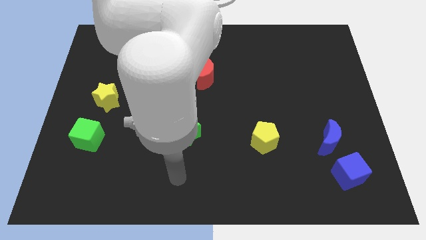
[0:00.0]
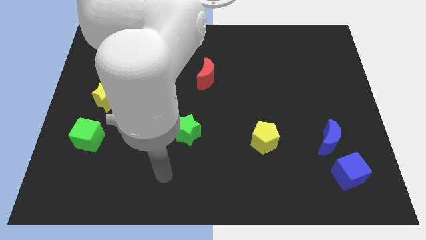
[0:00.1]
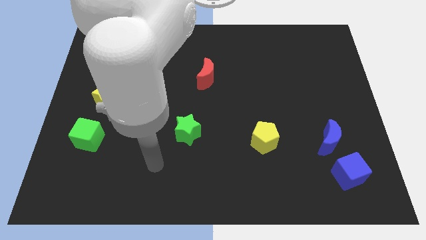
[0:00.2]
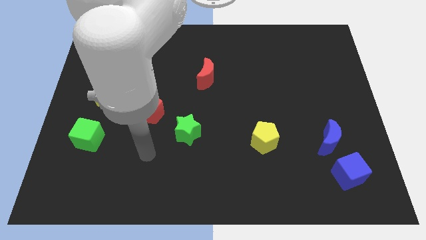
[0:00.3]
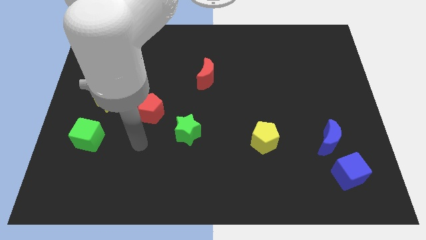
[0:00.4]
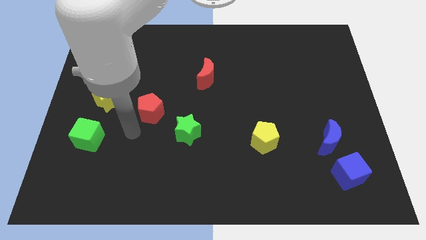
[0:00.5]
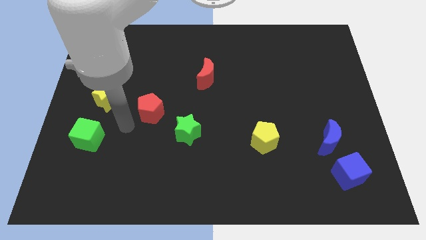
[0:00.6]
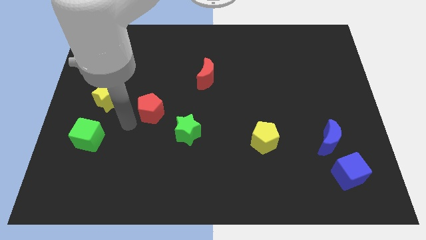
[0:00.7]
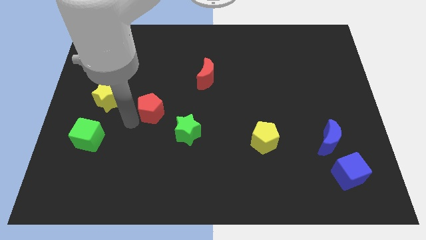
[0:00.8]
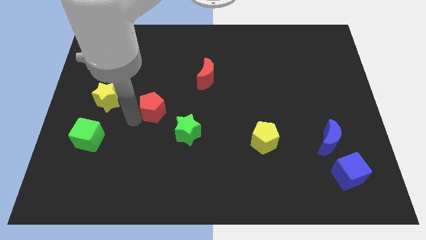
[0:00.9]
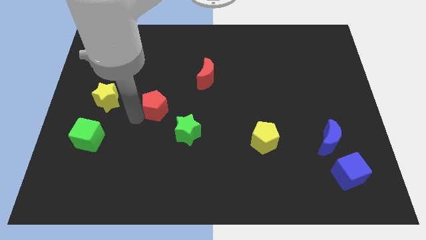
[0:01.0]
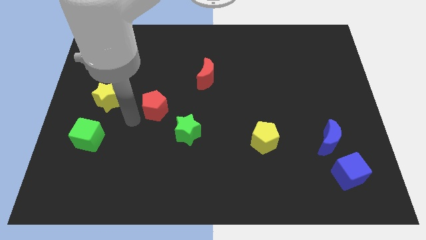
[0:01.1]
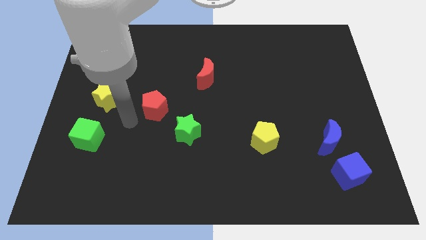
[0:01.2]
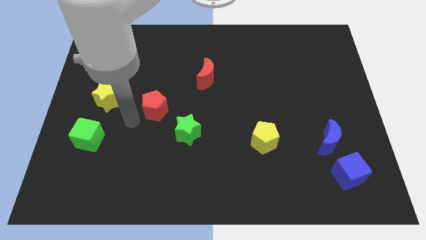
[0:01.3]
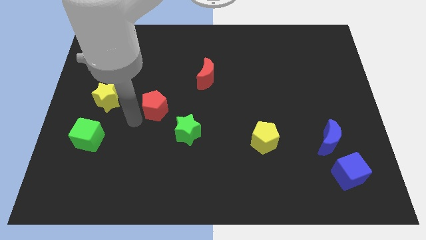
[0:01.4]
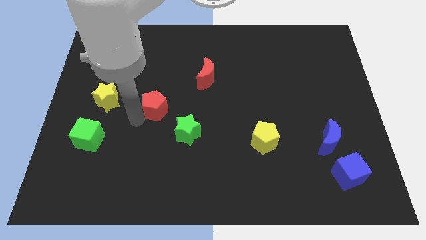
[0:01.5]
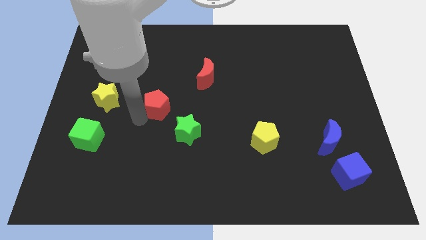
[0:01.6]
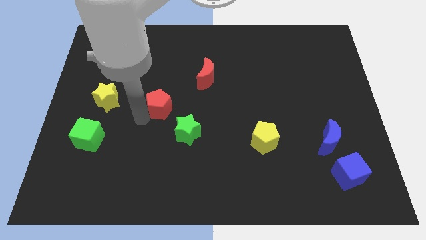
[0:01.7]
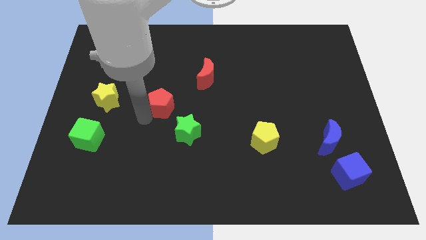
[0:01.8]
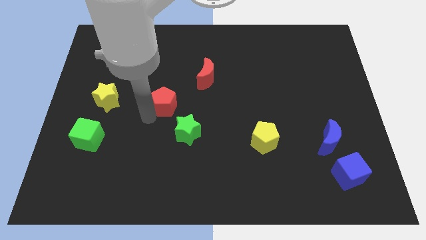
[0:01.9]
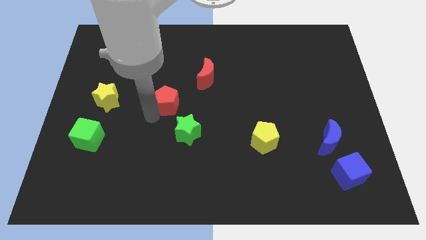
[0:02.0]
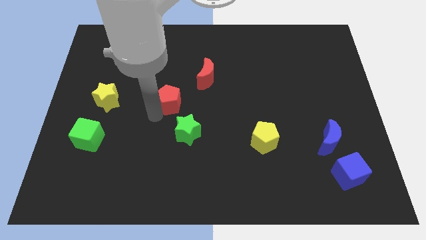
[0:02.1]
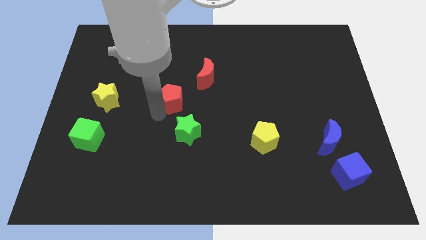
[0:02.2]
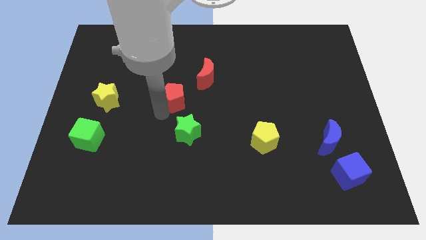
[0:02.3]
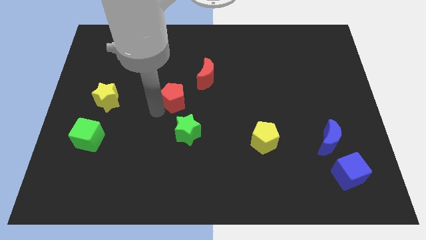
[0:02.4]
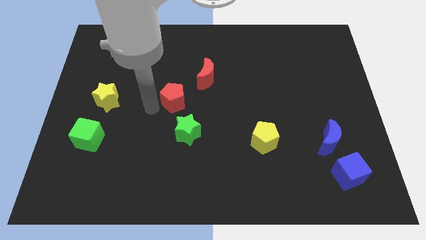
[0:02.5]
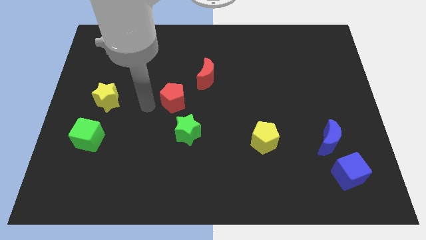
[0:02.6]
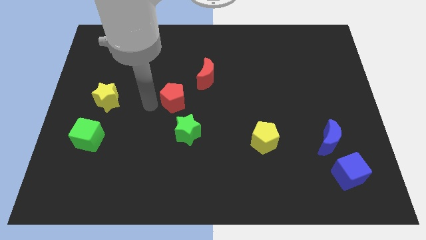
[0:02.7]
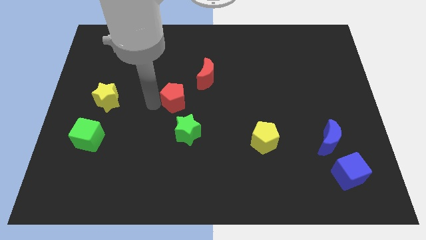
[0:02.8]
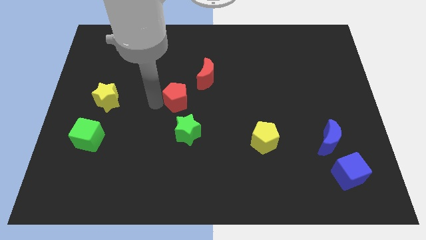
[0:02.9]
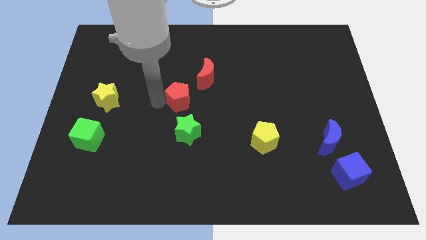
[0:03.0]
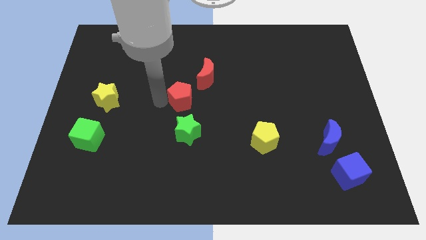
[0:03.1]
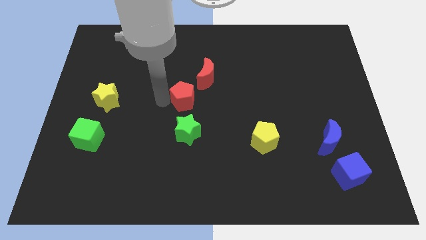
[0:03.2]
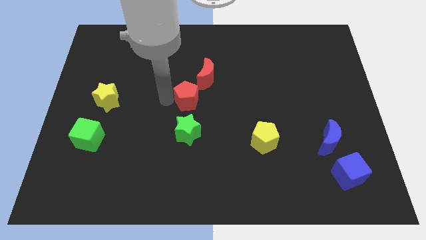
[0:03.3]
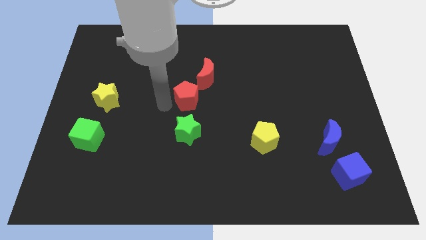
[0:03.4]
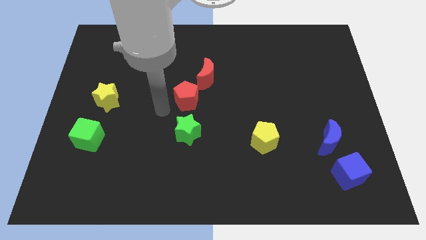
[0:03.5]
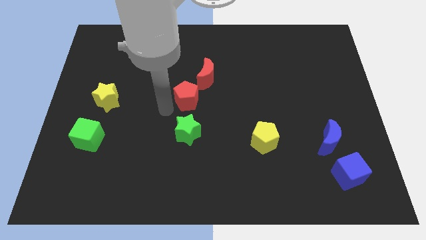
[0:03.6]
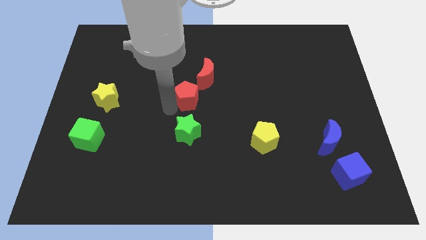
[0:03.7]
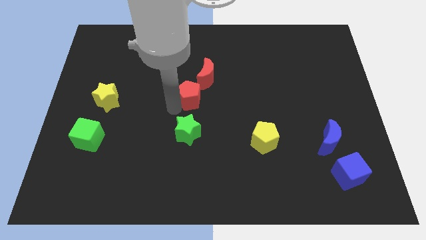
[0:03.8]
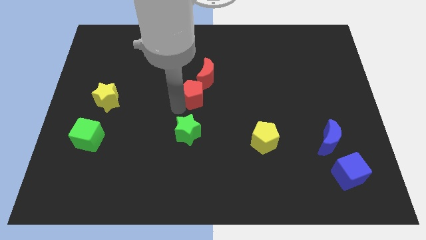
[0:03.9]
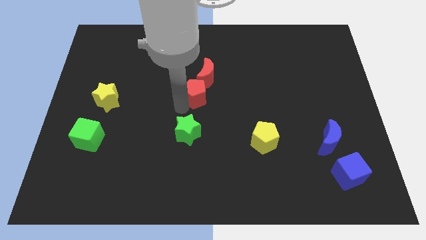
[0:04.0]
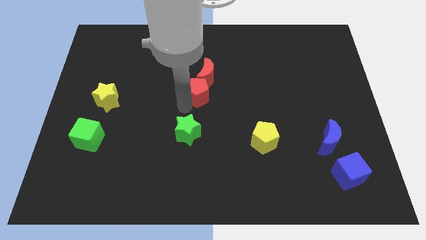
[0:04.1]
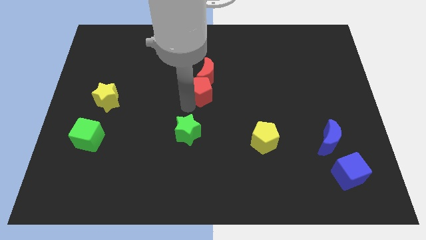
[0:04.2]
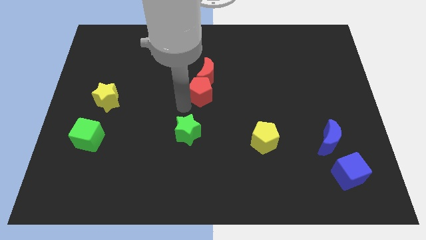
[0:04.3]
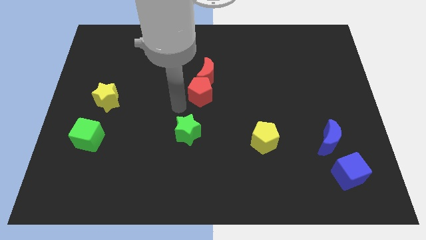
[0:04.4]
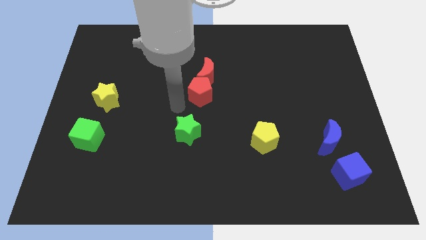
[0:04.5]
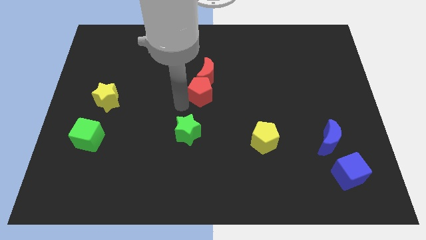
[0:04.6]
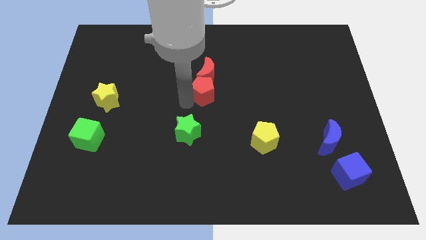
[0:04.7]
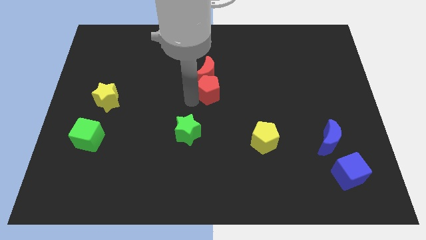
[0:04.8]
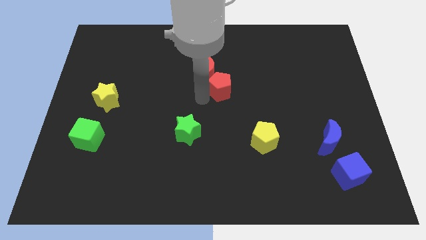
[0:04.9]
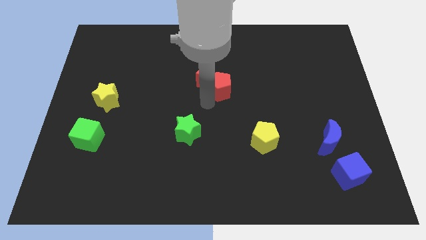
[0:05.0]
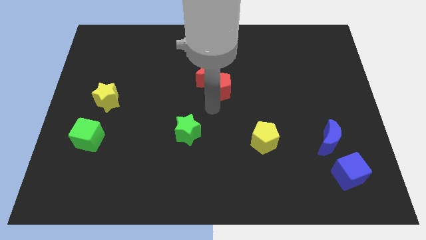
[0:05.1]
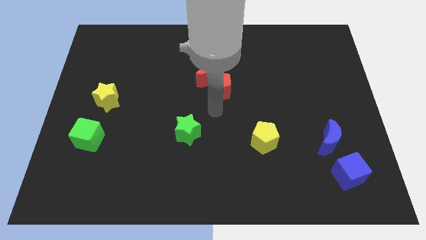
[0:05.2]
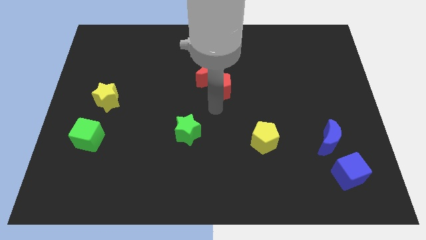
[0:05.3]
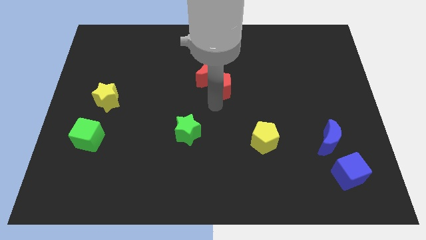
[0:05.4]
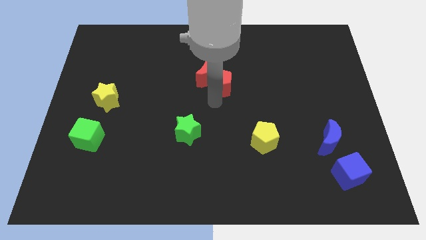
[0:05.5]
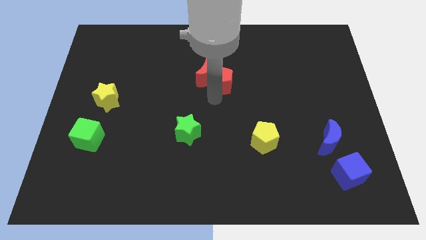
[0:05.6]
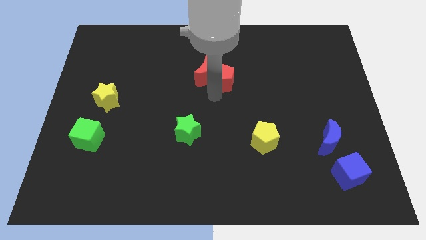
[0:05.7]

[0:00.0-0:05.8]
slide the red pentagon to the top right side of the red moon
